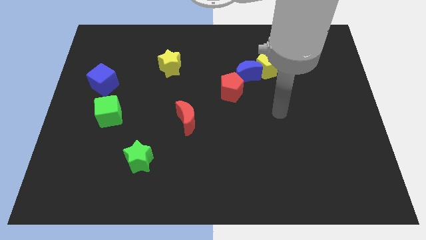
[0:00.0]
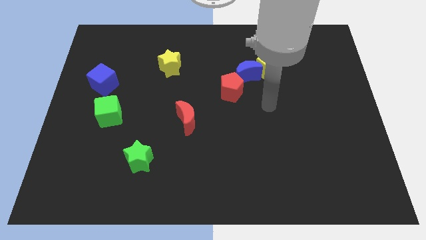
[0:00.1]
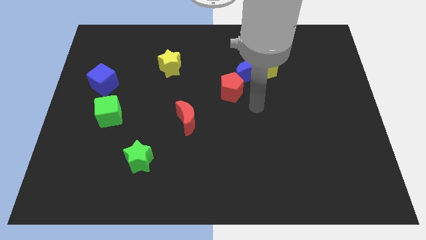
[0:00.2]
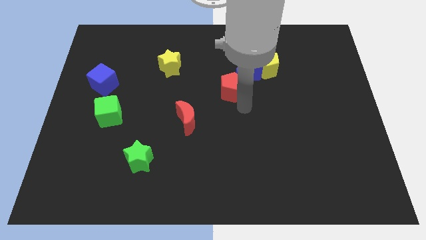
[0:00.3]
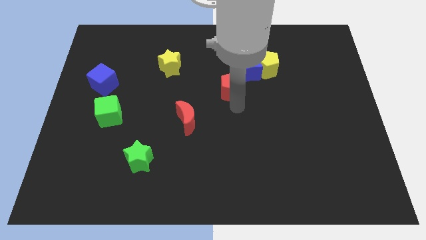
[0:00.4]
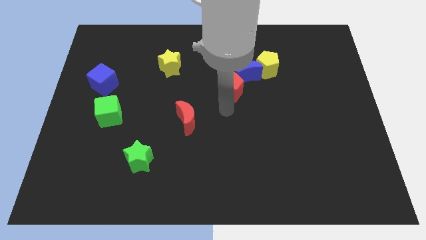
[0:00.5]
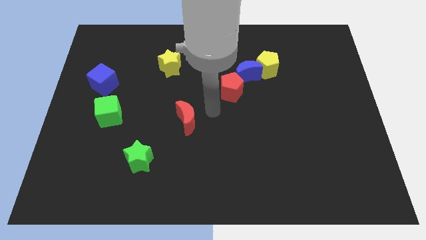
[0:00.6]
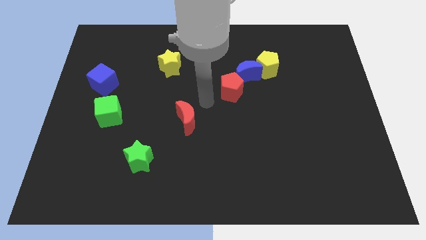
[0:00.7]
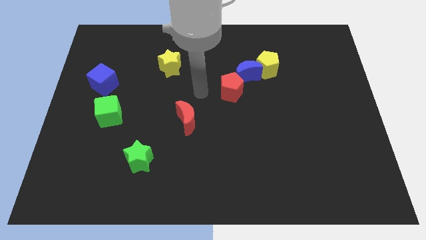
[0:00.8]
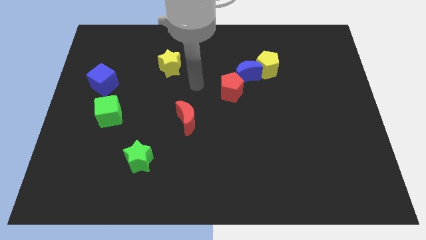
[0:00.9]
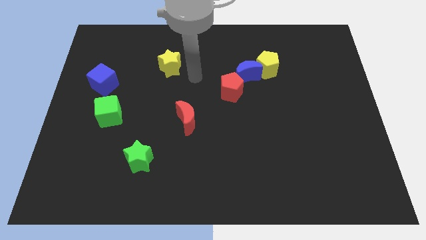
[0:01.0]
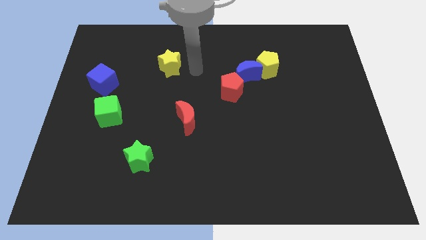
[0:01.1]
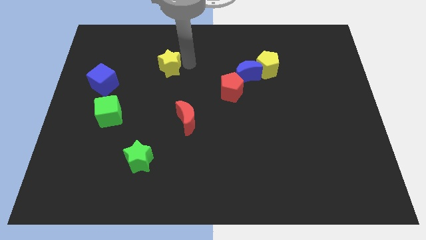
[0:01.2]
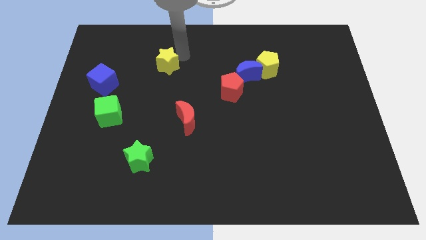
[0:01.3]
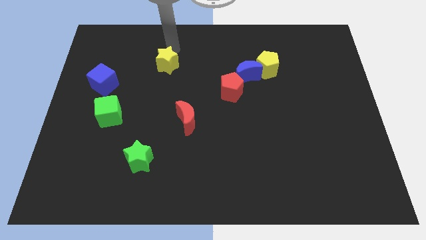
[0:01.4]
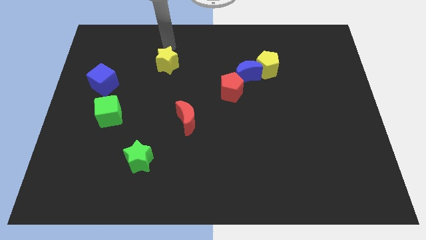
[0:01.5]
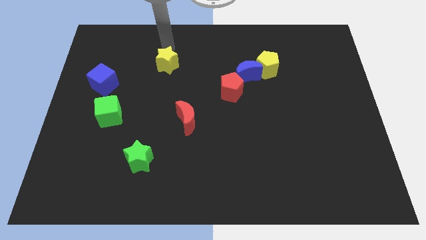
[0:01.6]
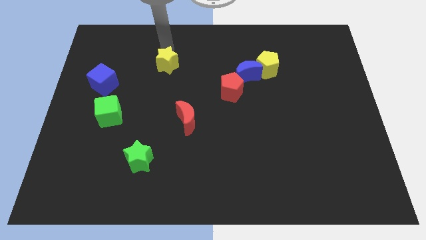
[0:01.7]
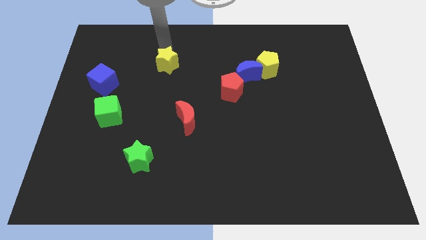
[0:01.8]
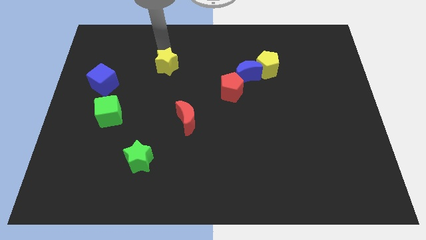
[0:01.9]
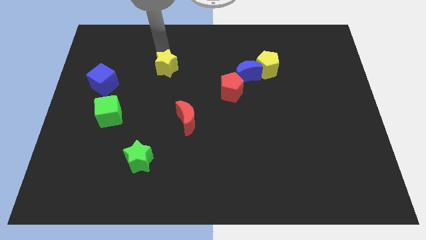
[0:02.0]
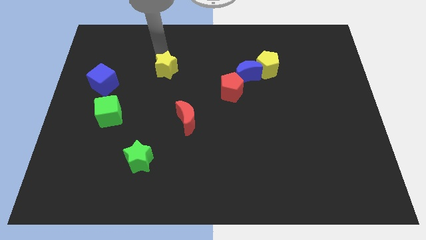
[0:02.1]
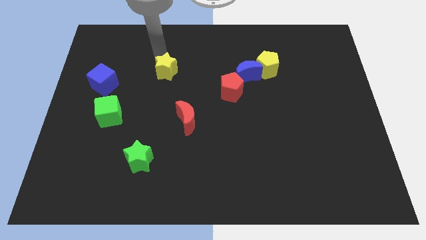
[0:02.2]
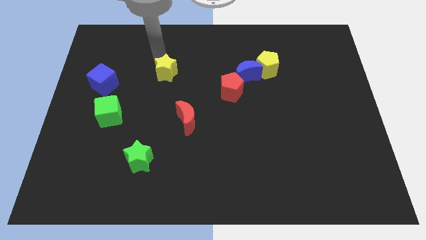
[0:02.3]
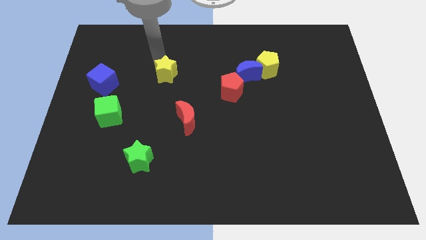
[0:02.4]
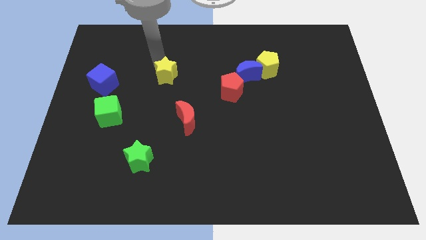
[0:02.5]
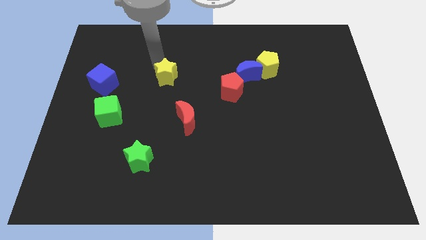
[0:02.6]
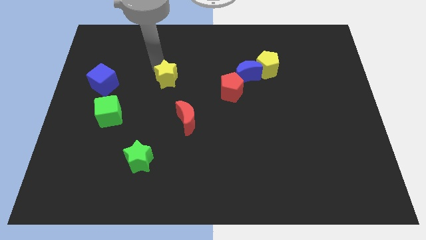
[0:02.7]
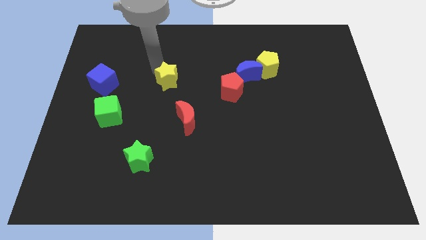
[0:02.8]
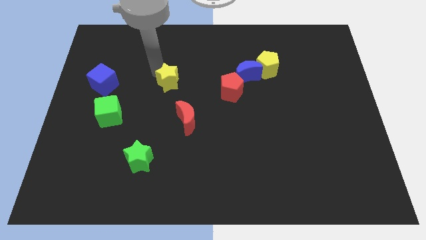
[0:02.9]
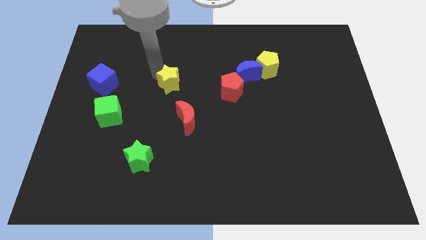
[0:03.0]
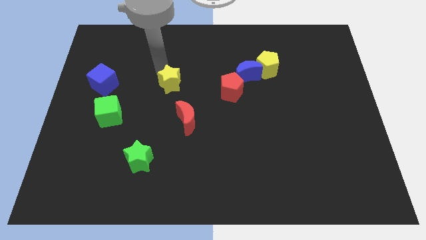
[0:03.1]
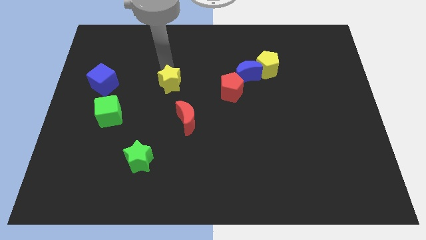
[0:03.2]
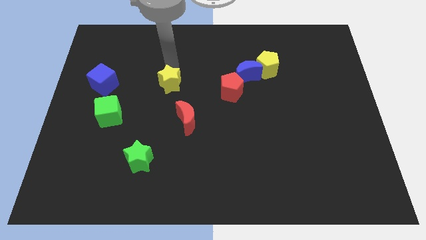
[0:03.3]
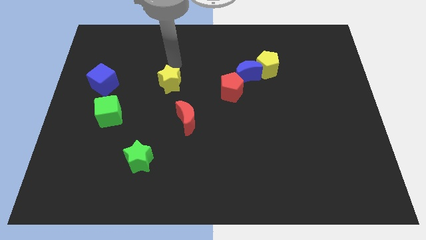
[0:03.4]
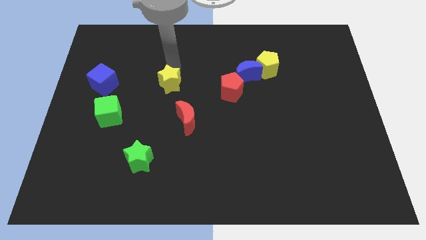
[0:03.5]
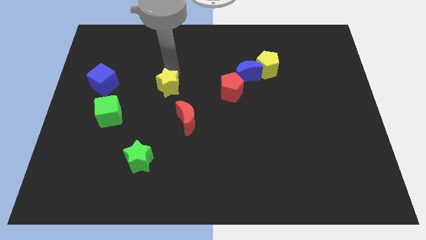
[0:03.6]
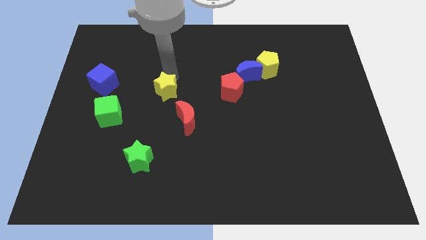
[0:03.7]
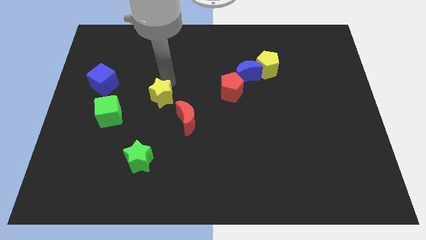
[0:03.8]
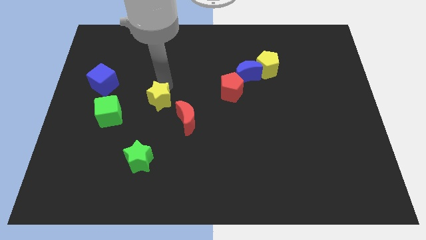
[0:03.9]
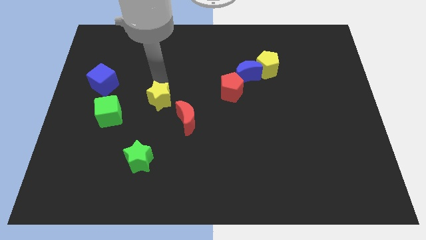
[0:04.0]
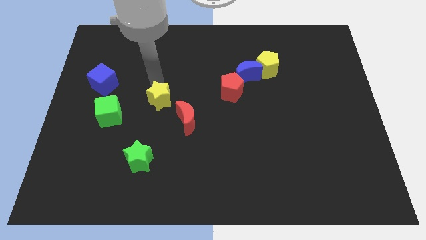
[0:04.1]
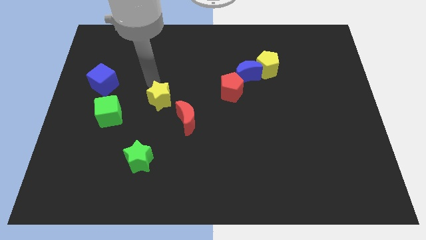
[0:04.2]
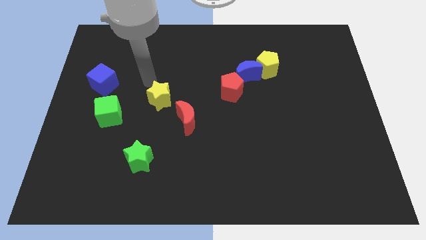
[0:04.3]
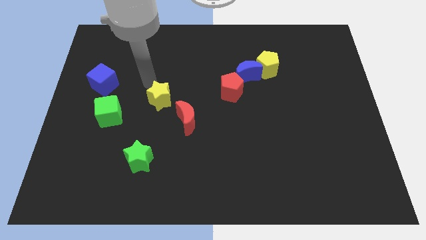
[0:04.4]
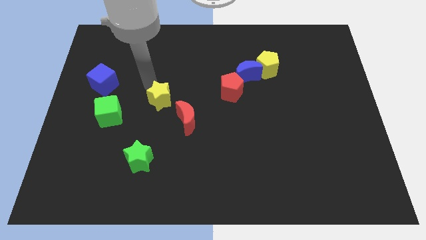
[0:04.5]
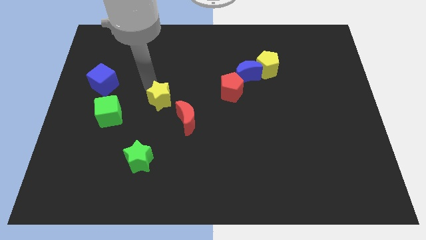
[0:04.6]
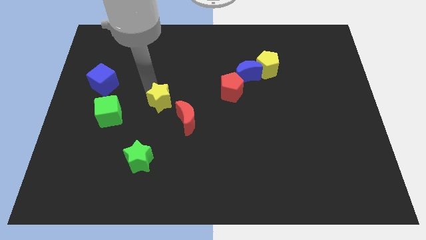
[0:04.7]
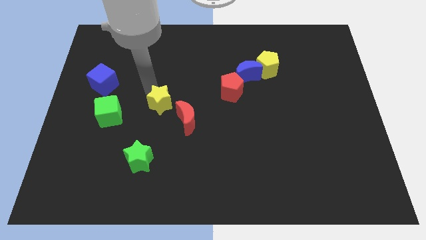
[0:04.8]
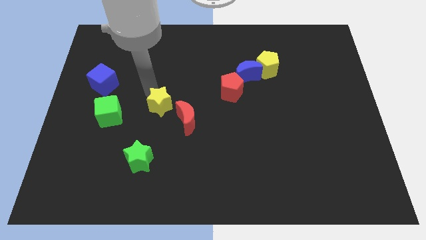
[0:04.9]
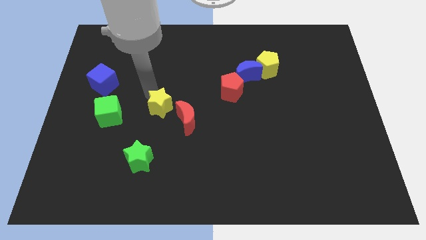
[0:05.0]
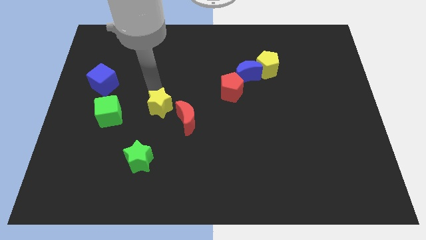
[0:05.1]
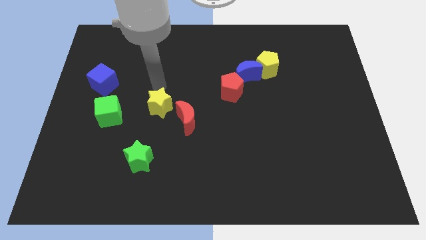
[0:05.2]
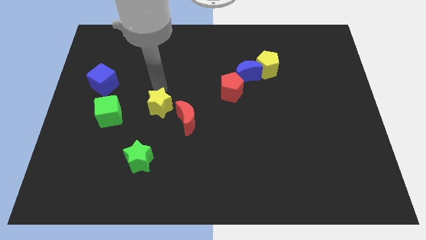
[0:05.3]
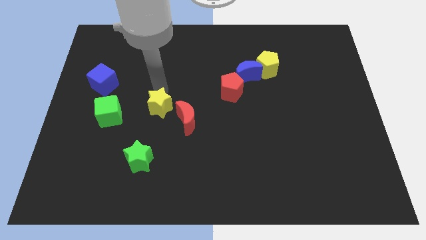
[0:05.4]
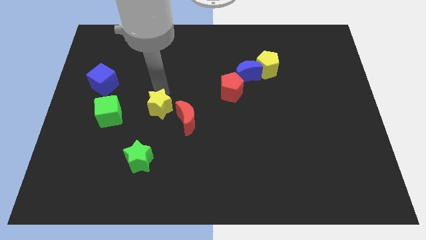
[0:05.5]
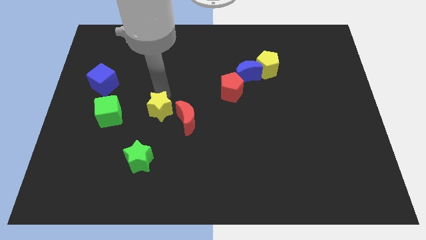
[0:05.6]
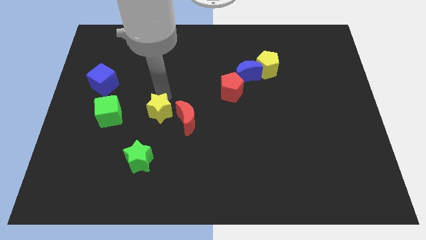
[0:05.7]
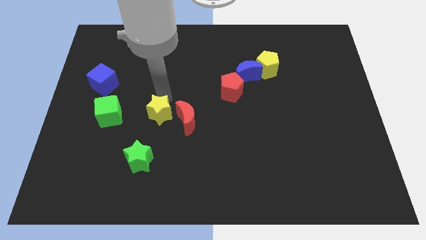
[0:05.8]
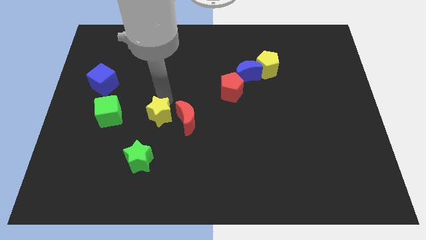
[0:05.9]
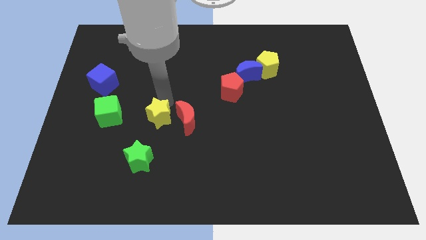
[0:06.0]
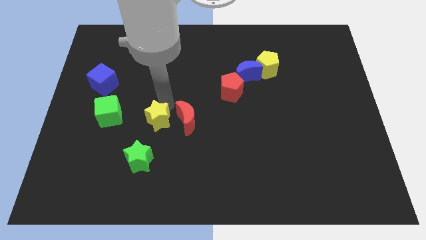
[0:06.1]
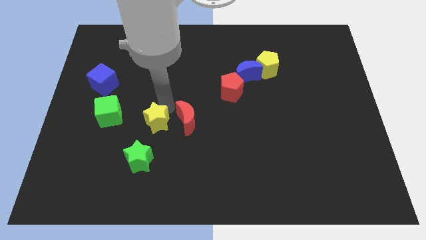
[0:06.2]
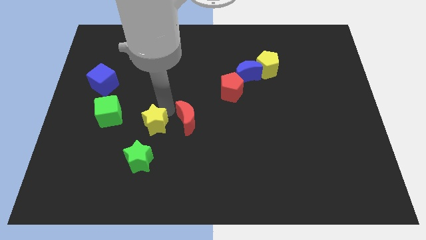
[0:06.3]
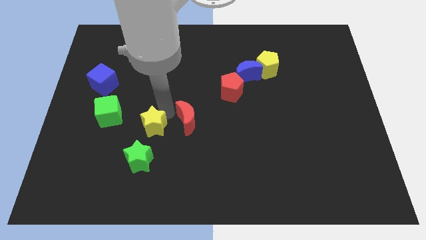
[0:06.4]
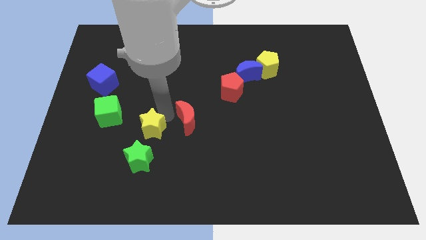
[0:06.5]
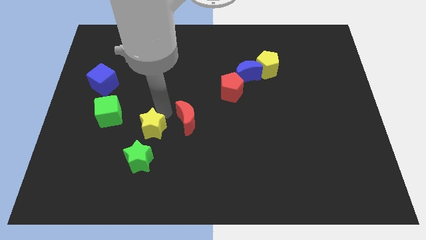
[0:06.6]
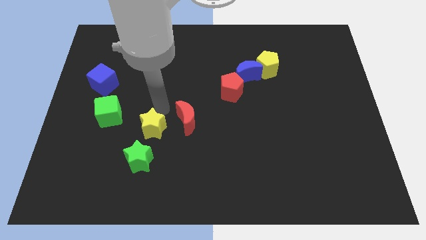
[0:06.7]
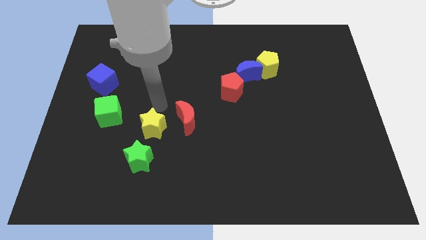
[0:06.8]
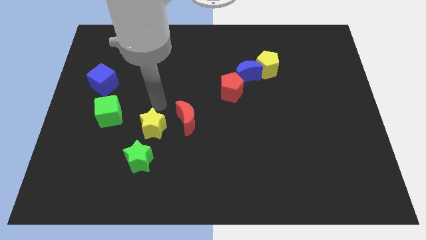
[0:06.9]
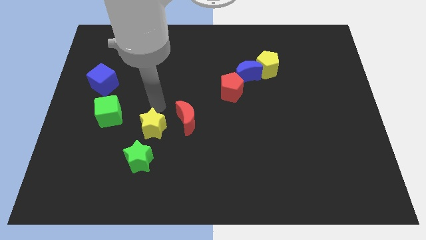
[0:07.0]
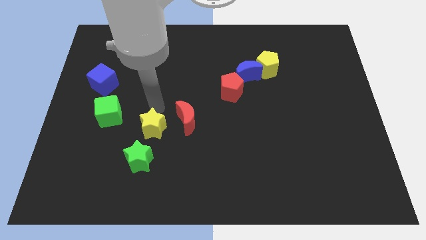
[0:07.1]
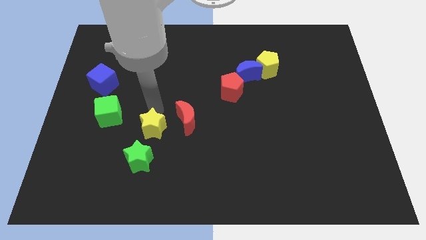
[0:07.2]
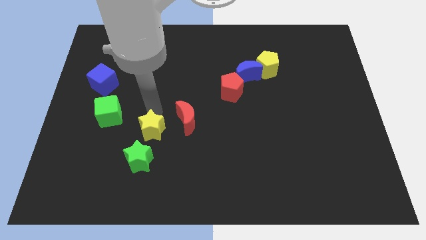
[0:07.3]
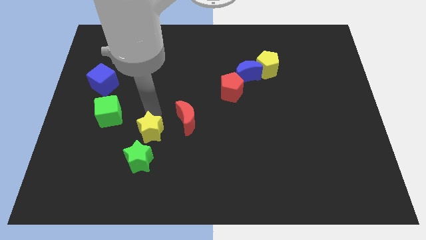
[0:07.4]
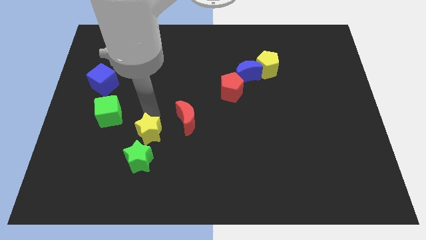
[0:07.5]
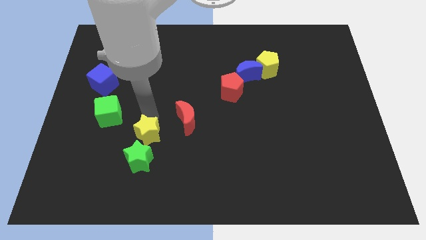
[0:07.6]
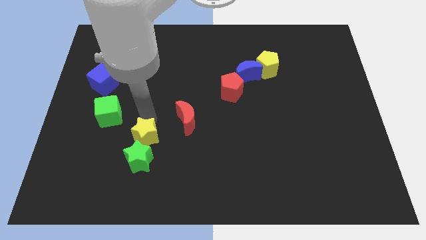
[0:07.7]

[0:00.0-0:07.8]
put the yellow star to the green star
